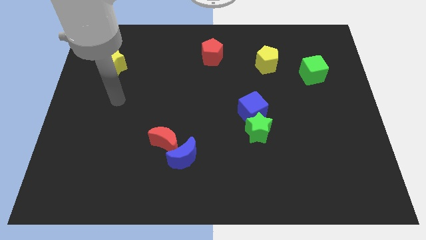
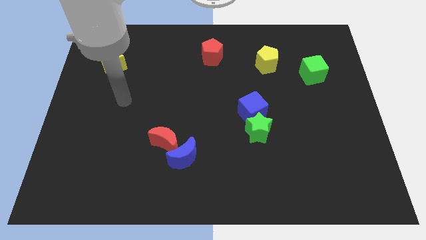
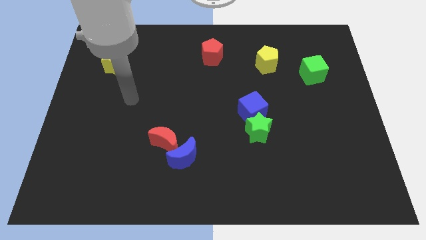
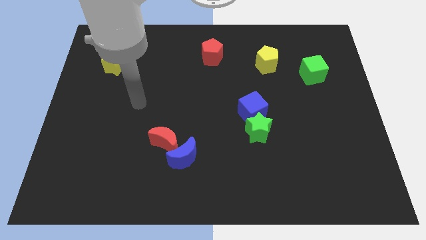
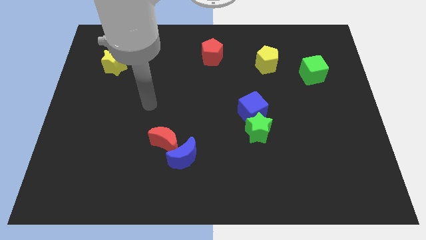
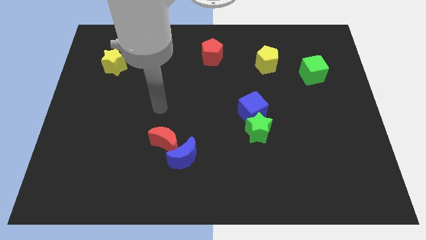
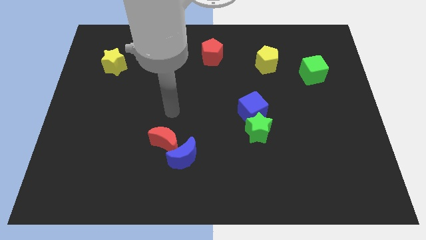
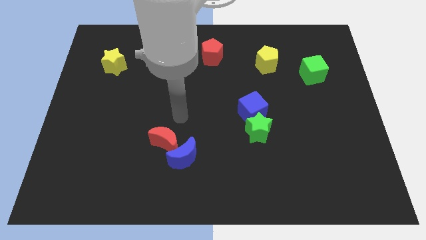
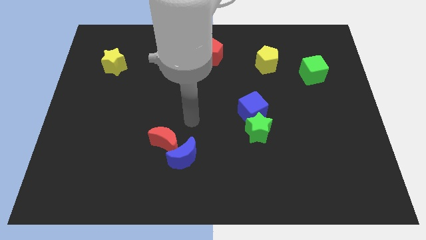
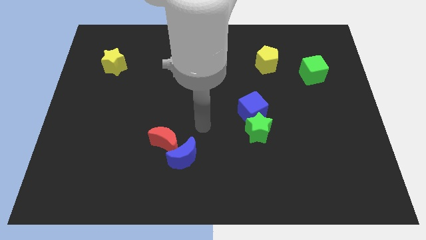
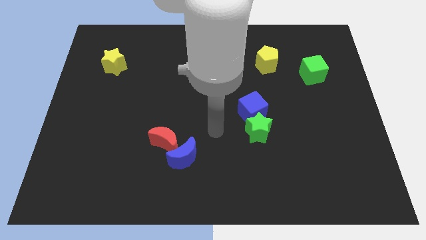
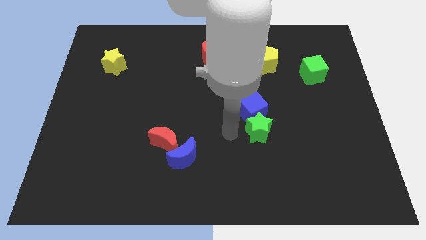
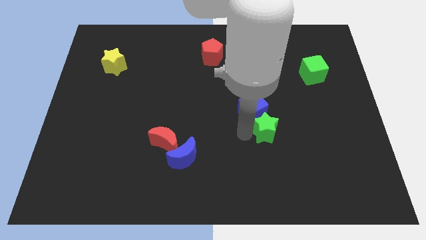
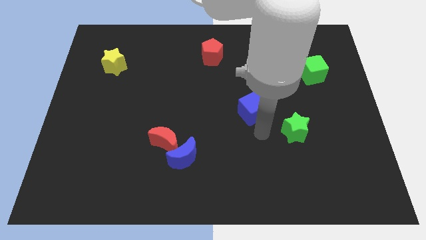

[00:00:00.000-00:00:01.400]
pull the blue cube apart from the green star

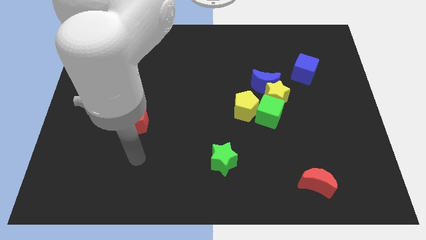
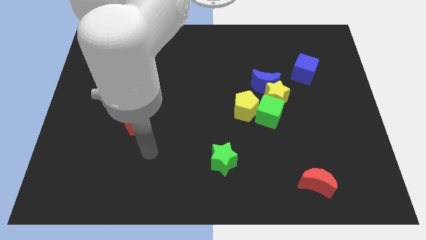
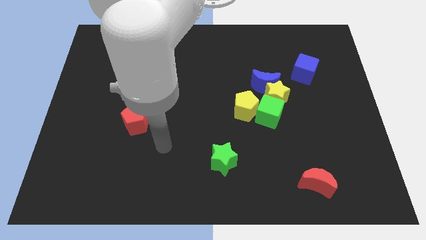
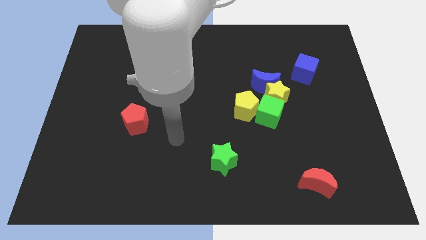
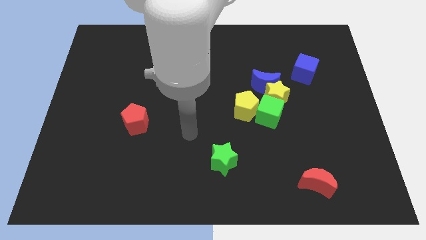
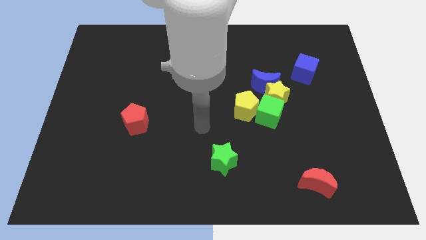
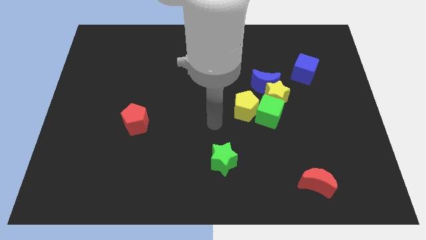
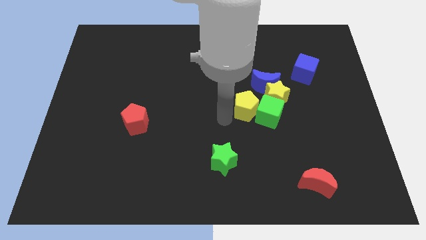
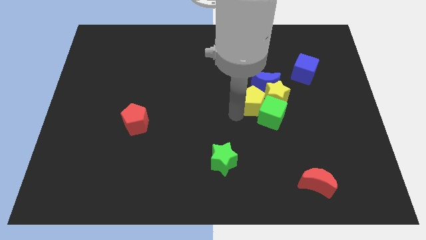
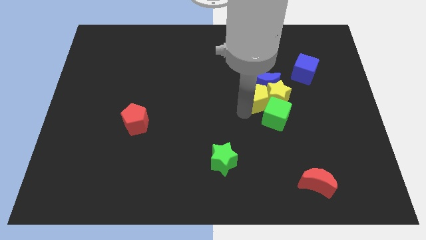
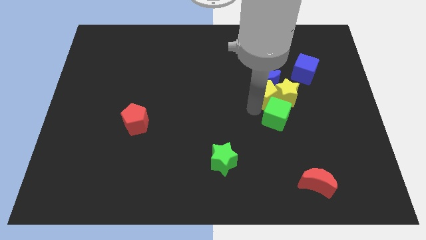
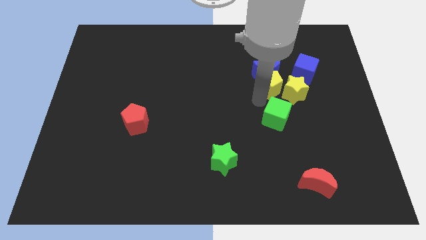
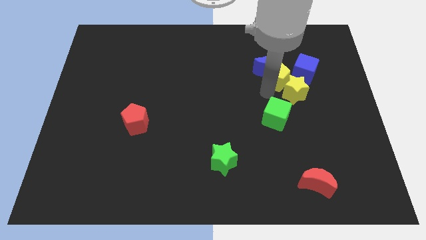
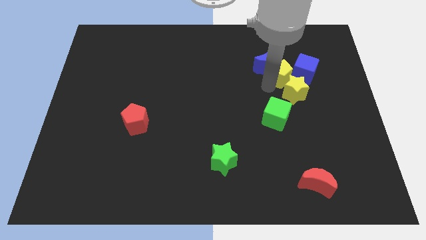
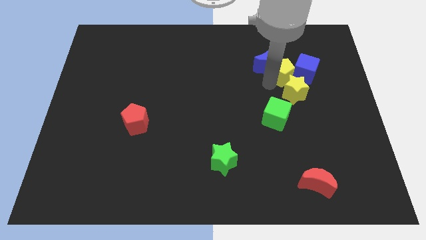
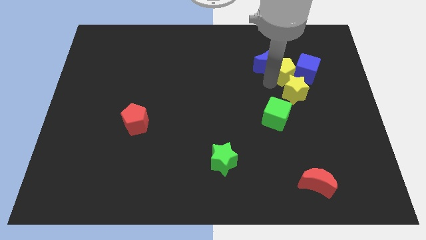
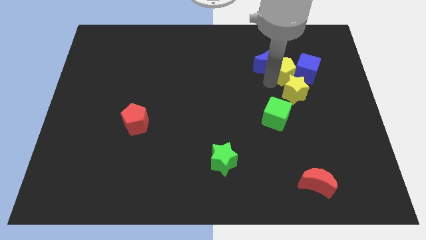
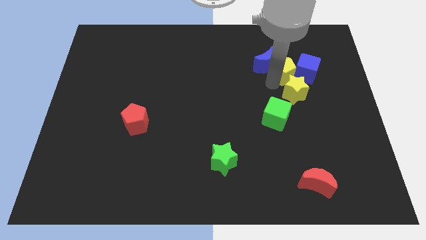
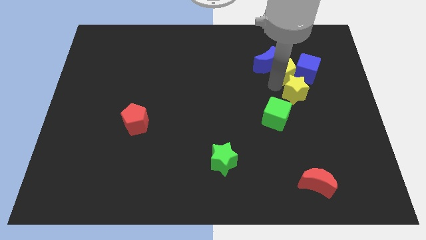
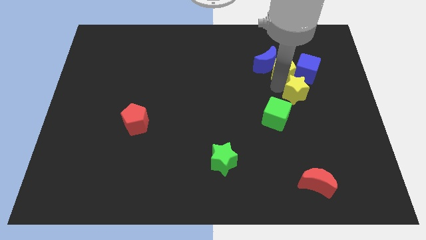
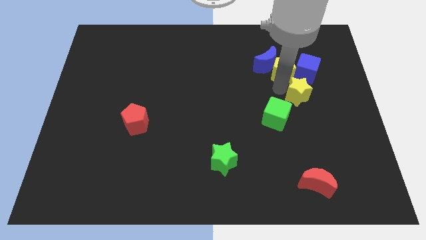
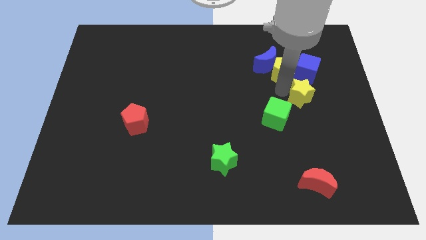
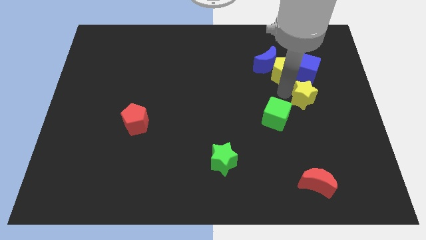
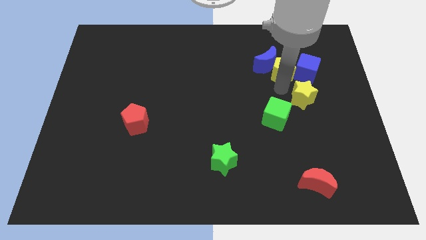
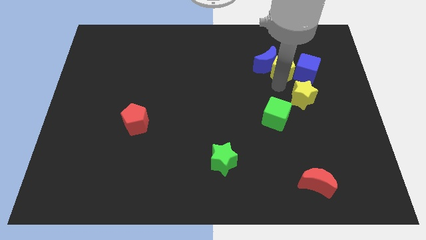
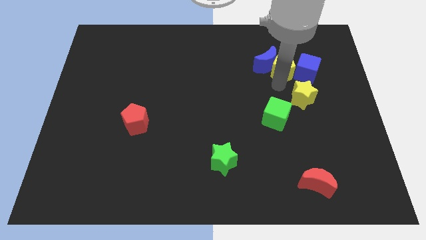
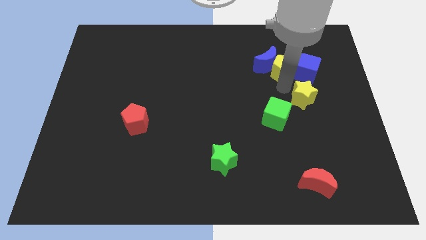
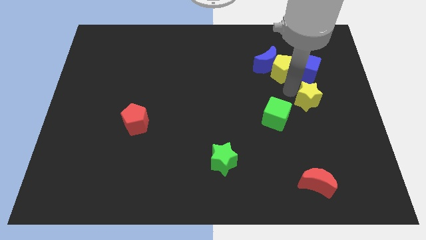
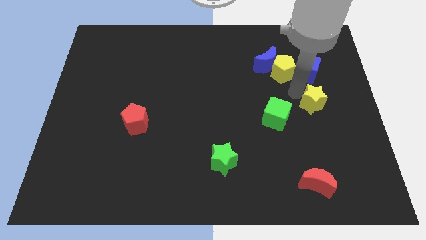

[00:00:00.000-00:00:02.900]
pull the yellow star apart from the group

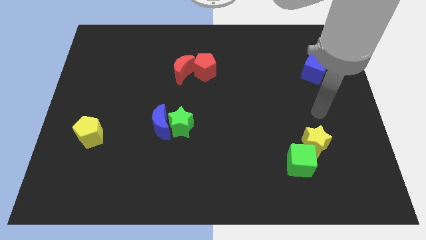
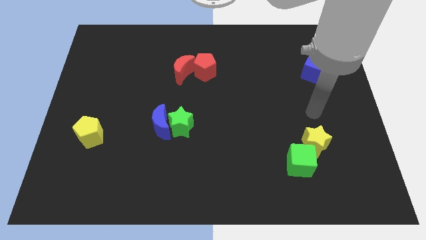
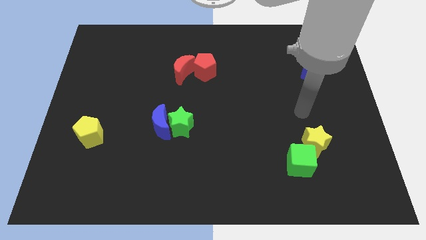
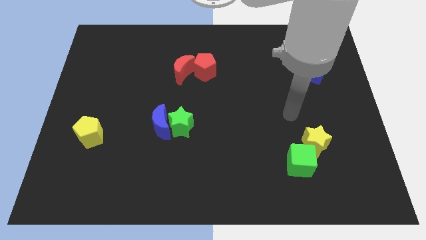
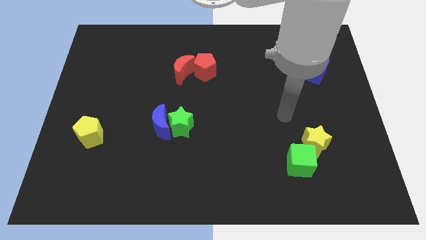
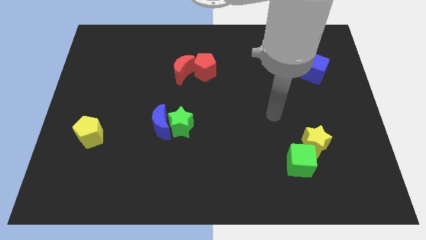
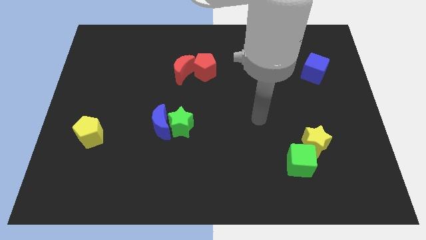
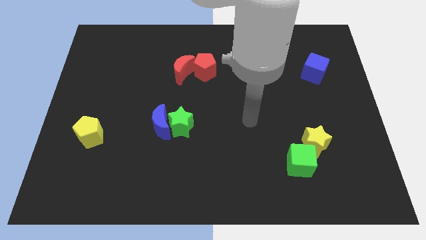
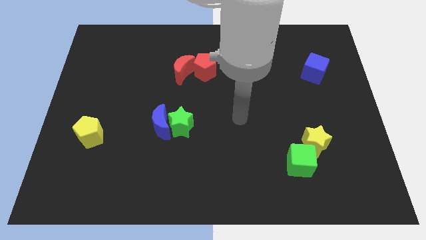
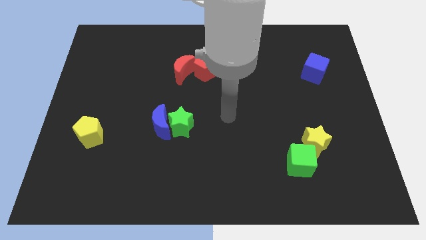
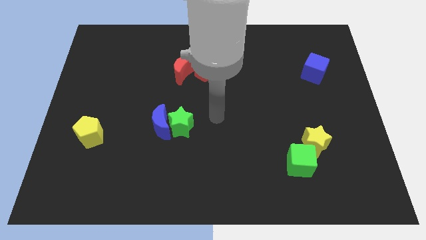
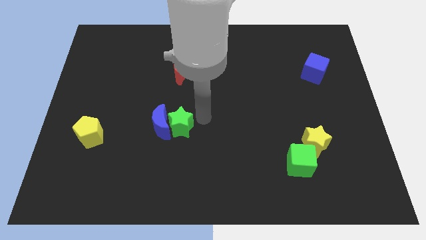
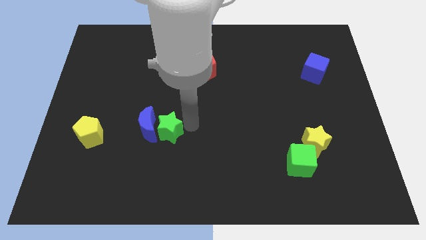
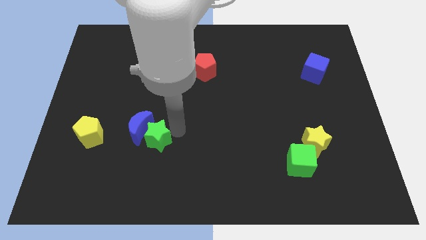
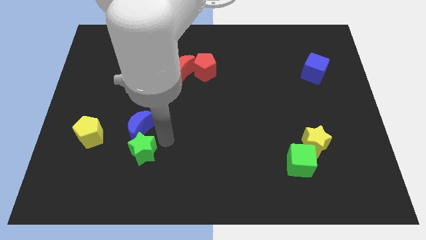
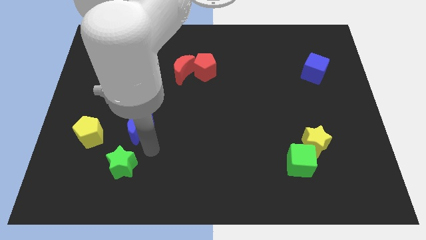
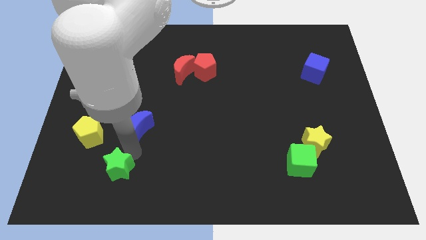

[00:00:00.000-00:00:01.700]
separate the blue moon from the green star

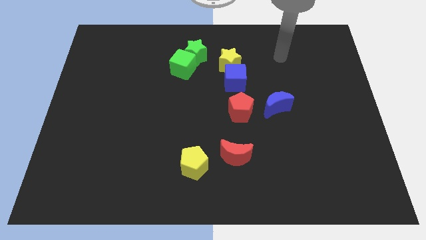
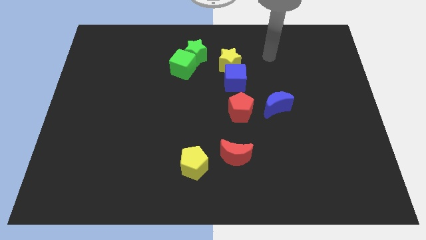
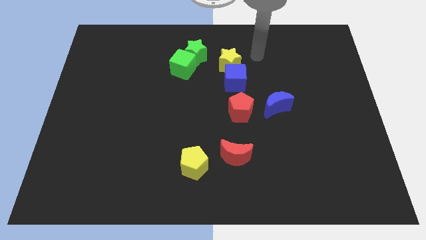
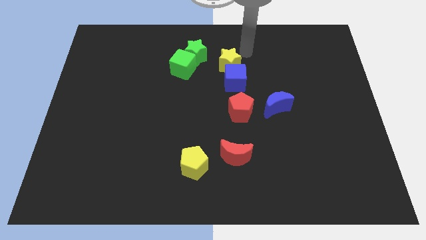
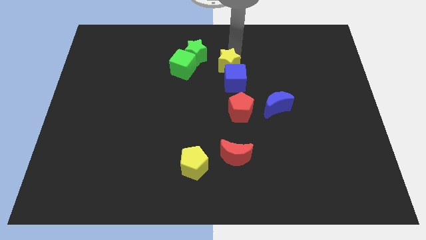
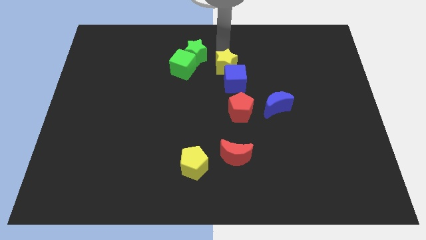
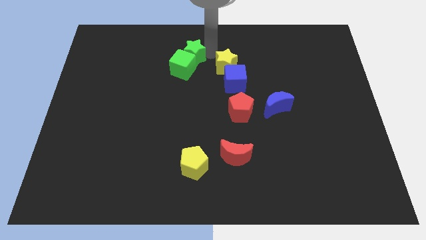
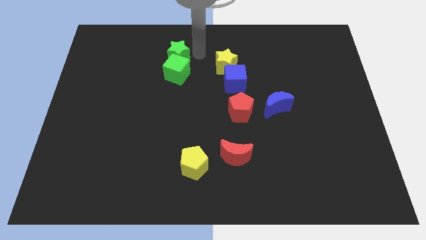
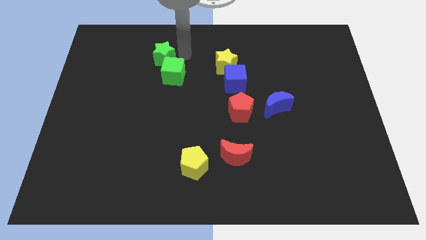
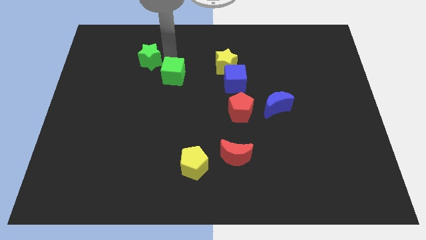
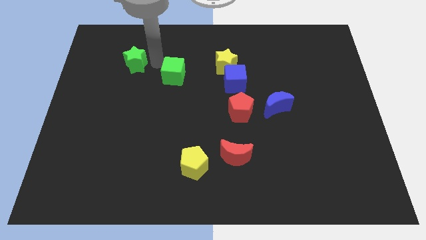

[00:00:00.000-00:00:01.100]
separate the green cube from the green star

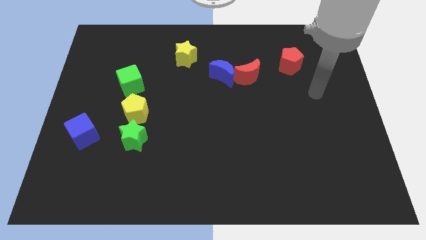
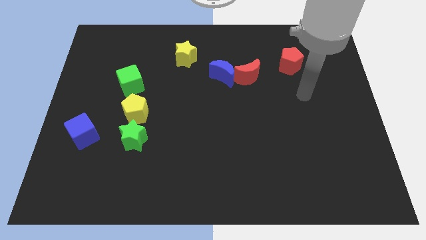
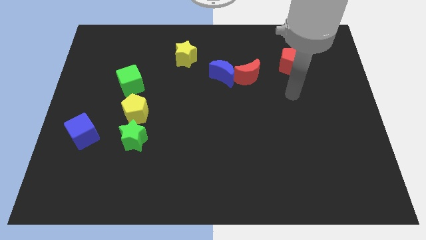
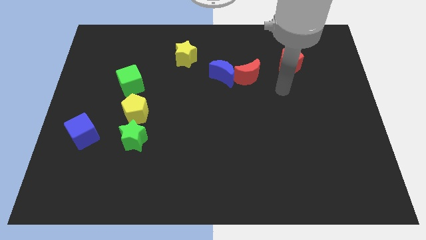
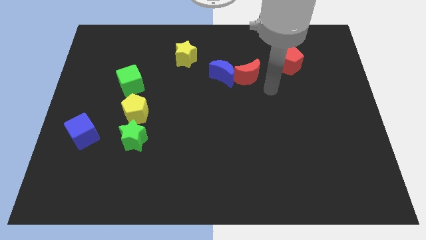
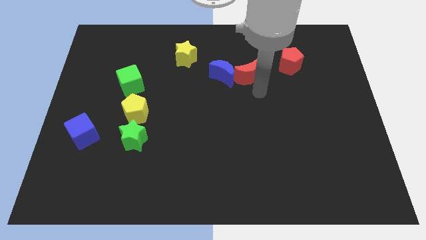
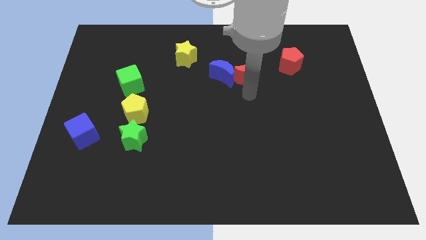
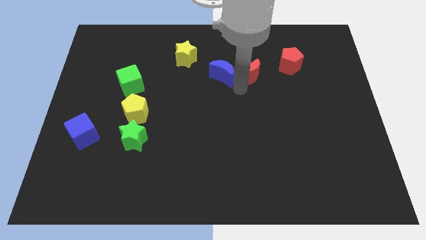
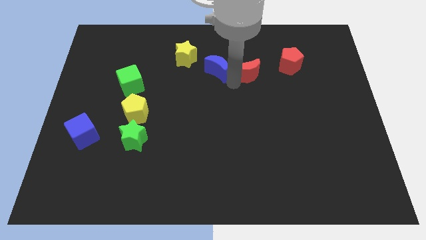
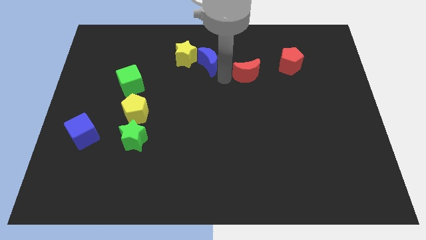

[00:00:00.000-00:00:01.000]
separate the red moon from the blue moon

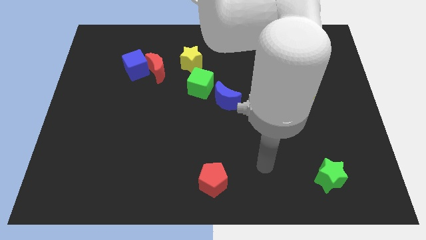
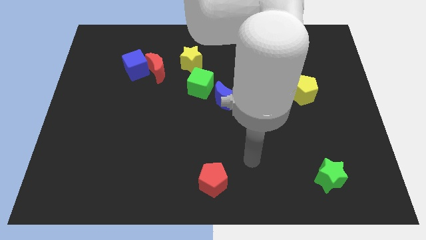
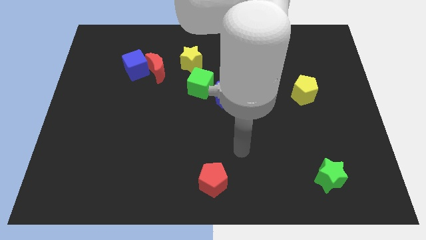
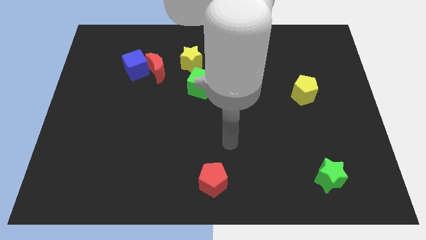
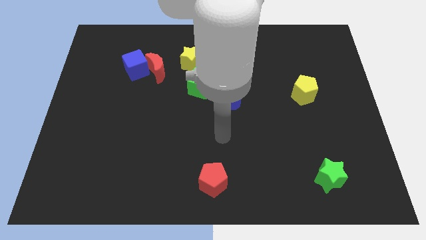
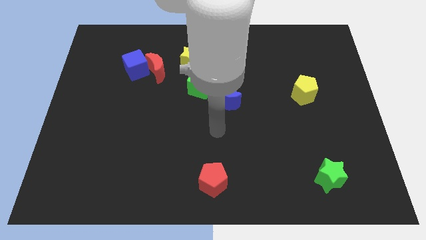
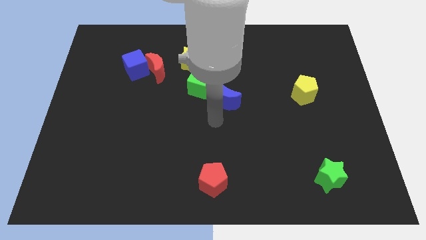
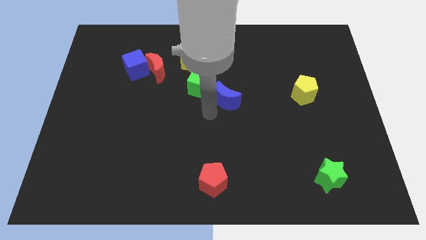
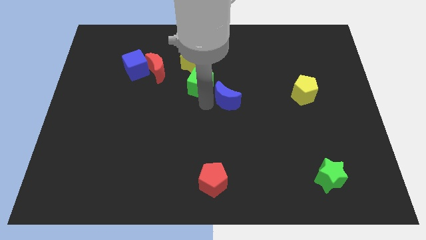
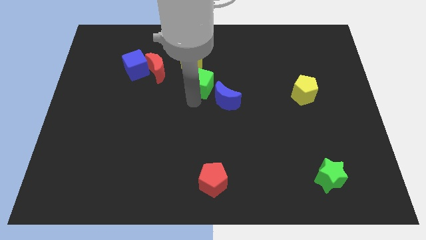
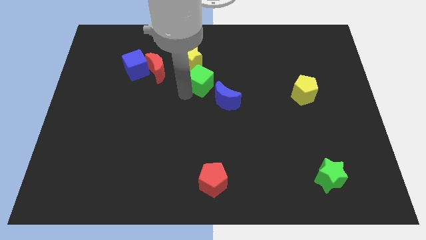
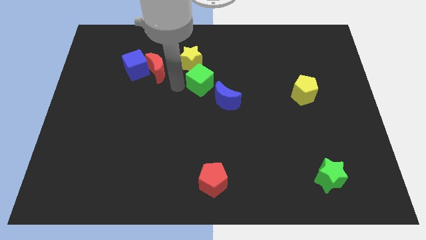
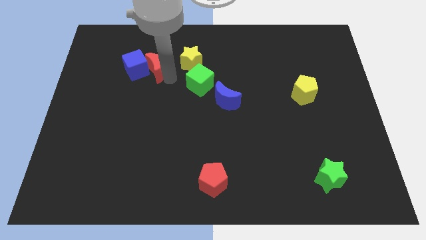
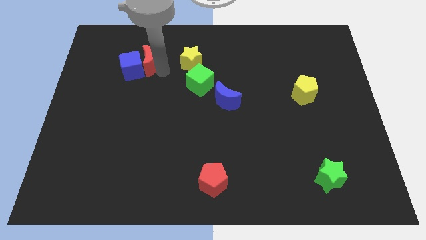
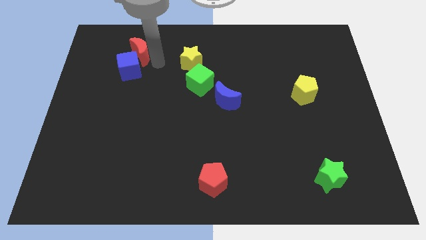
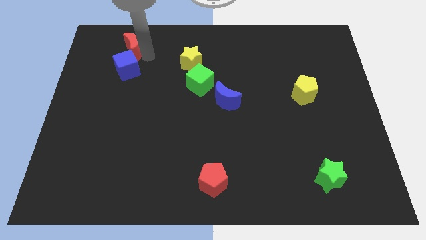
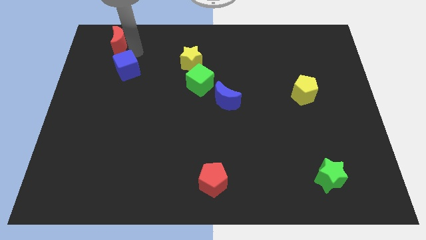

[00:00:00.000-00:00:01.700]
separate the blue cube from the red moon
